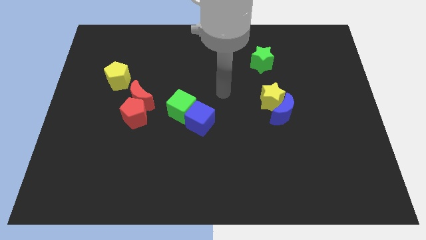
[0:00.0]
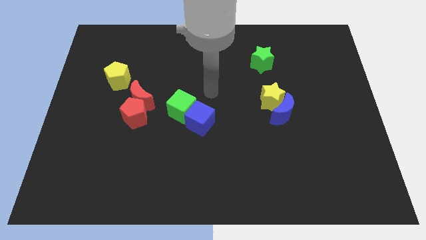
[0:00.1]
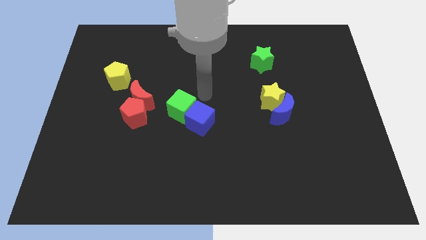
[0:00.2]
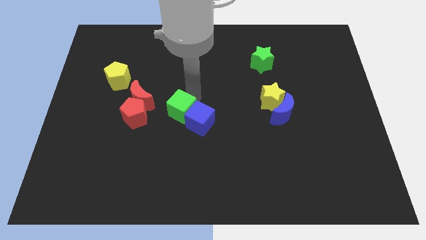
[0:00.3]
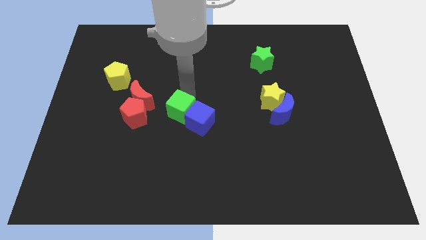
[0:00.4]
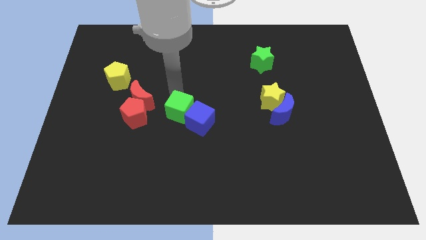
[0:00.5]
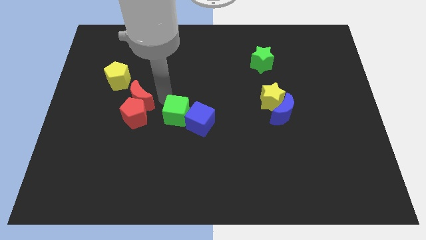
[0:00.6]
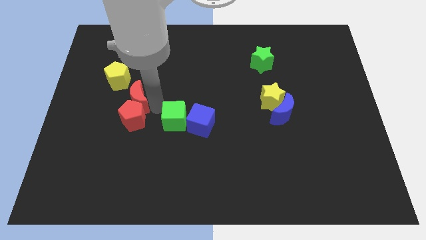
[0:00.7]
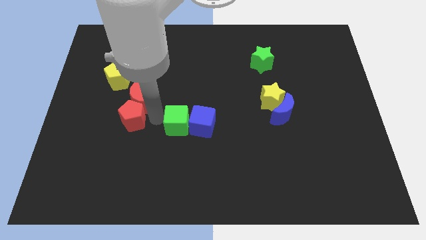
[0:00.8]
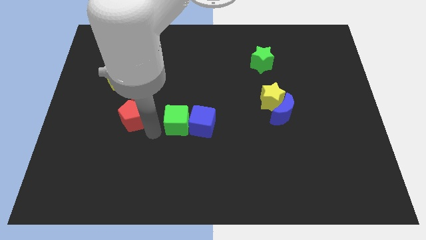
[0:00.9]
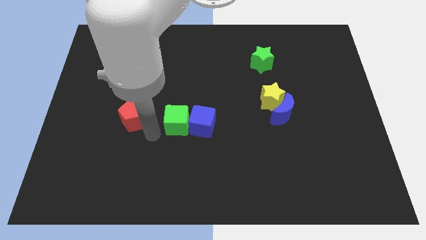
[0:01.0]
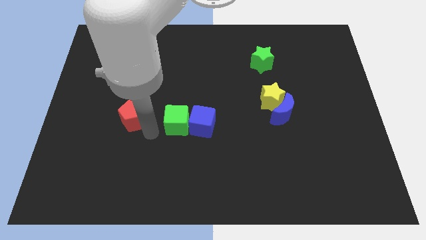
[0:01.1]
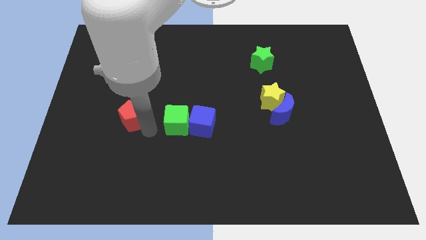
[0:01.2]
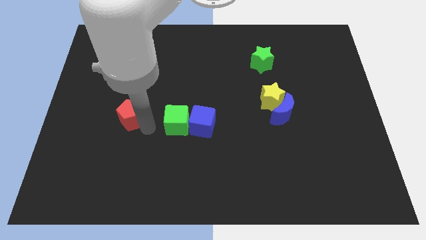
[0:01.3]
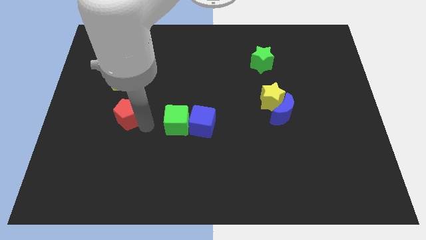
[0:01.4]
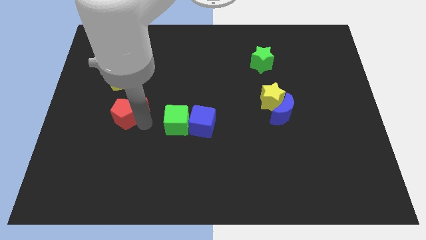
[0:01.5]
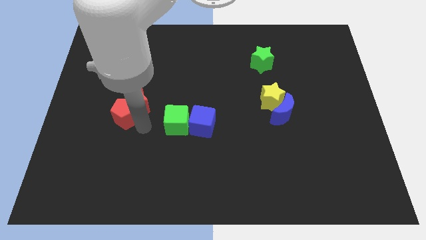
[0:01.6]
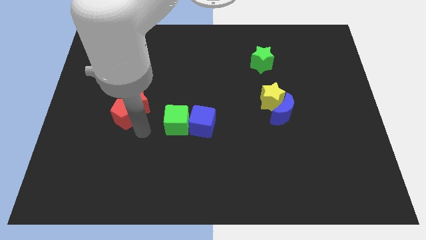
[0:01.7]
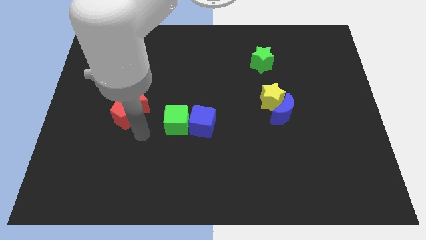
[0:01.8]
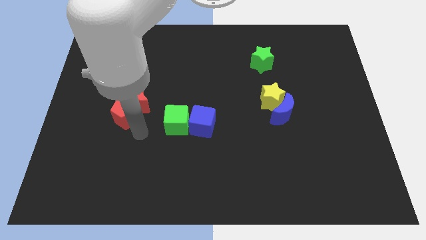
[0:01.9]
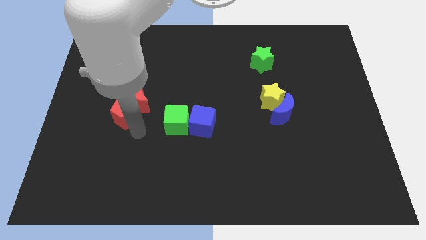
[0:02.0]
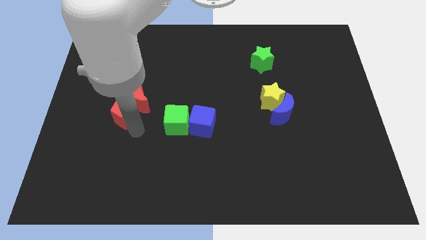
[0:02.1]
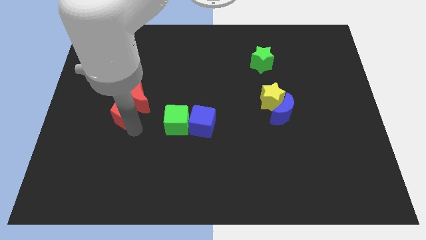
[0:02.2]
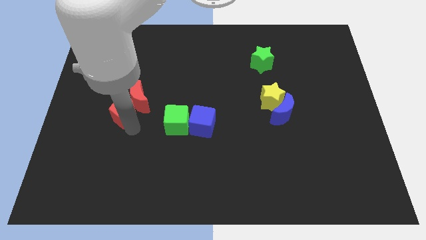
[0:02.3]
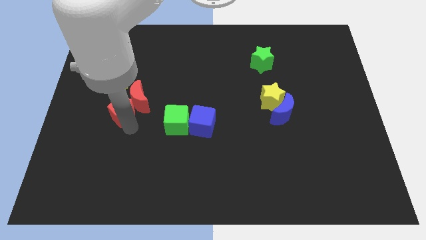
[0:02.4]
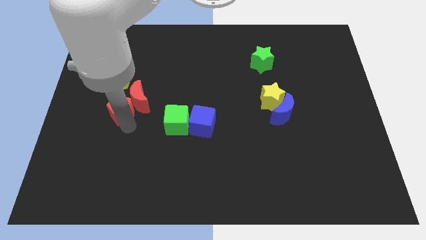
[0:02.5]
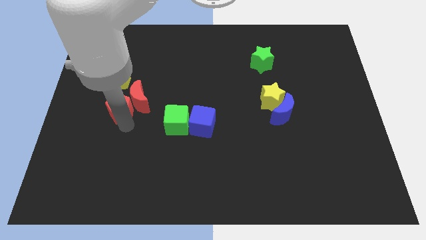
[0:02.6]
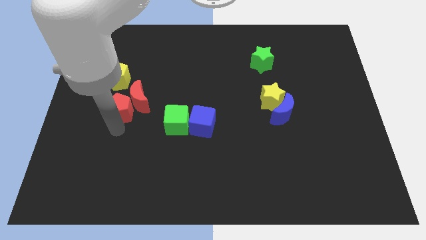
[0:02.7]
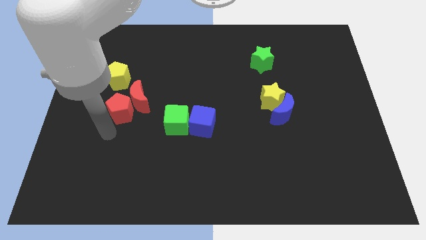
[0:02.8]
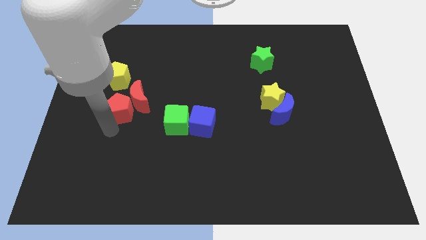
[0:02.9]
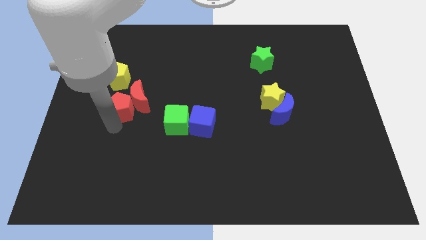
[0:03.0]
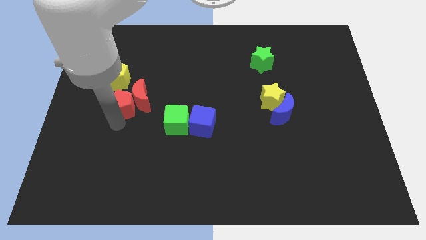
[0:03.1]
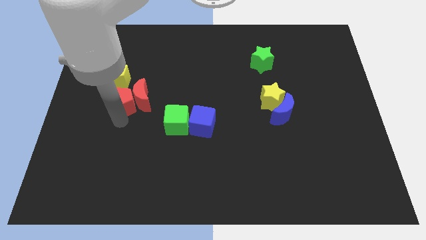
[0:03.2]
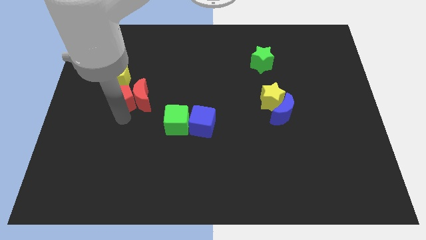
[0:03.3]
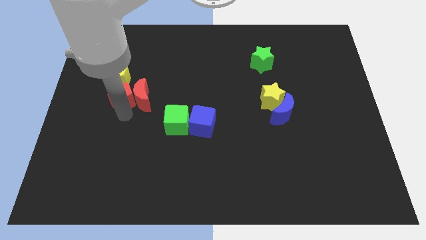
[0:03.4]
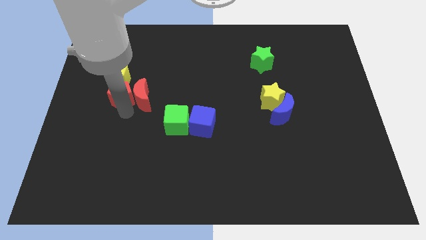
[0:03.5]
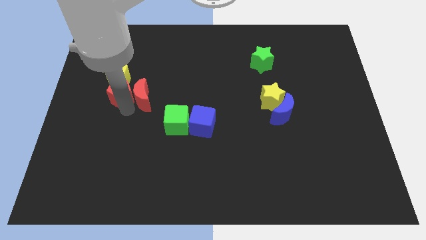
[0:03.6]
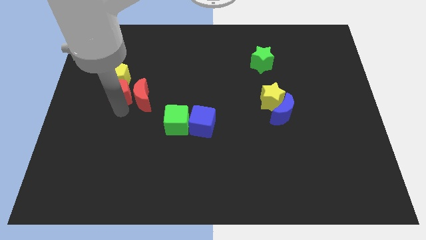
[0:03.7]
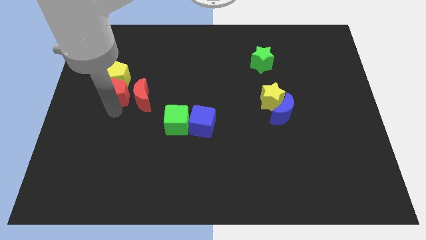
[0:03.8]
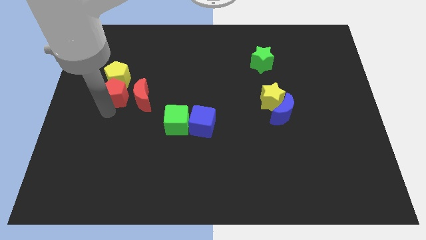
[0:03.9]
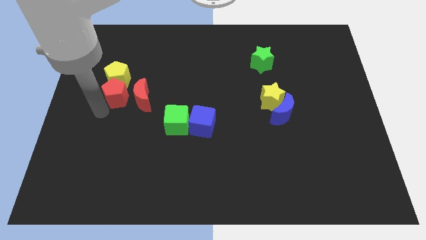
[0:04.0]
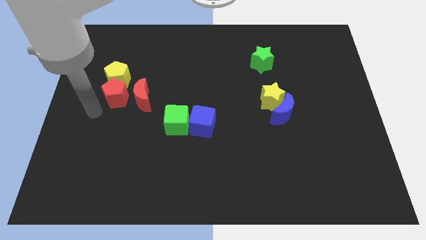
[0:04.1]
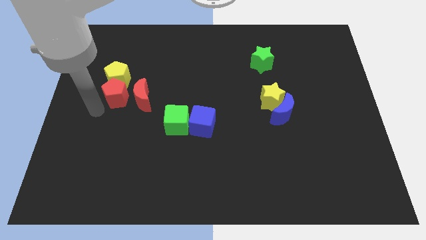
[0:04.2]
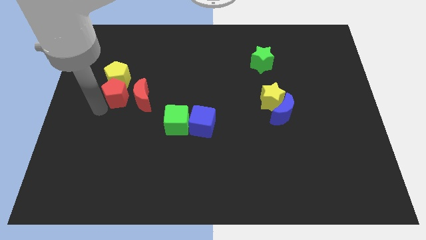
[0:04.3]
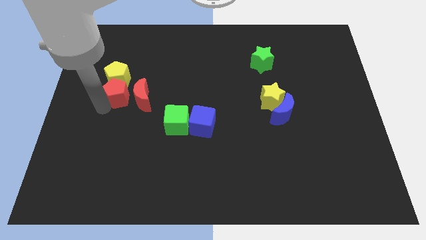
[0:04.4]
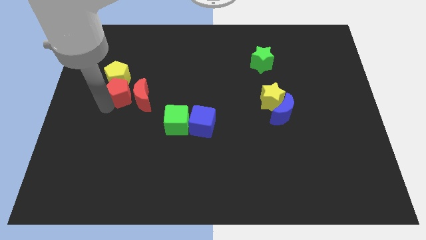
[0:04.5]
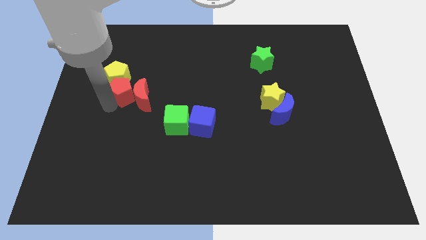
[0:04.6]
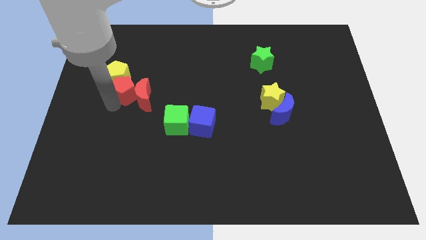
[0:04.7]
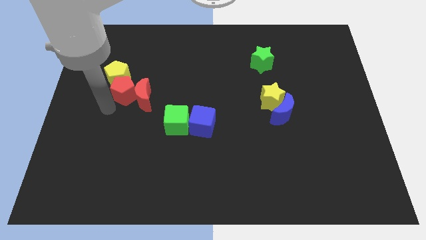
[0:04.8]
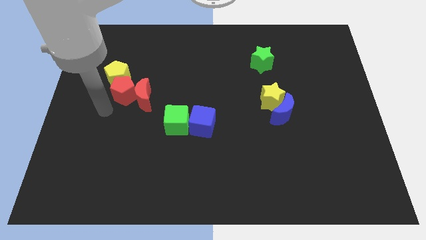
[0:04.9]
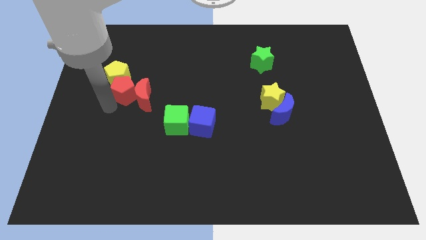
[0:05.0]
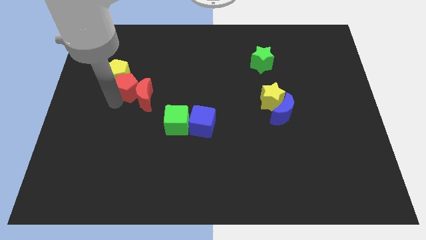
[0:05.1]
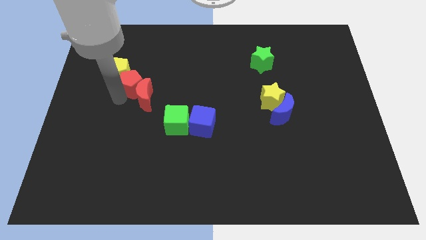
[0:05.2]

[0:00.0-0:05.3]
put the red pentagon above the red moon

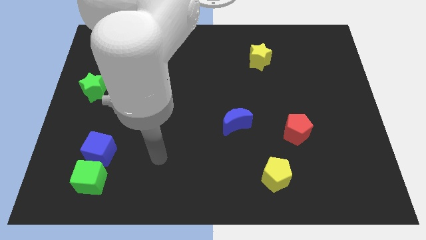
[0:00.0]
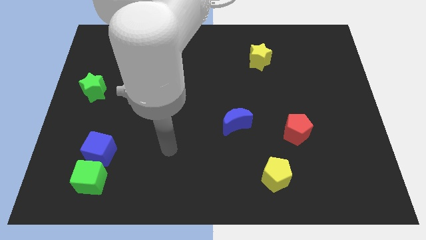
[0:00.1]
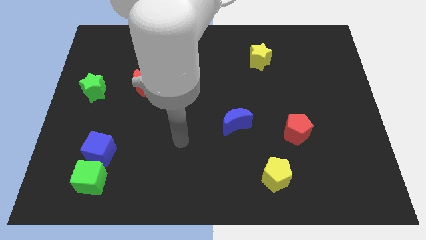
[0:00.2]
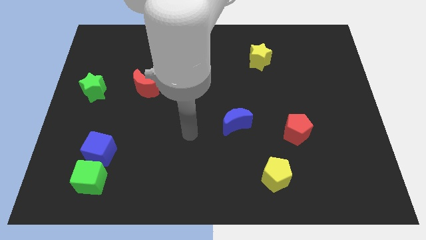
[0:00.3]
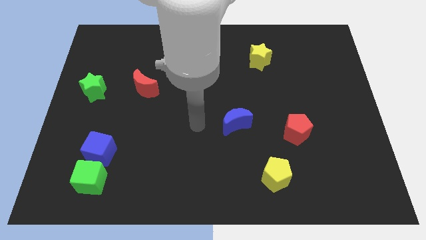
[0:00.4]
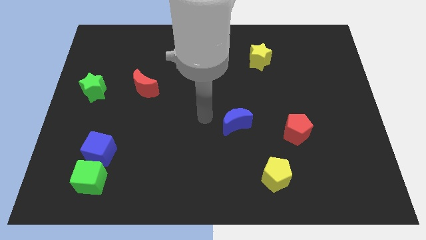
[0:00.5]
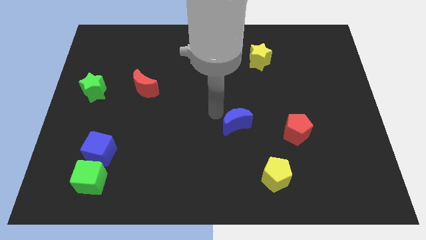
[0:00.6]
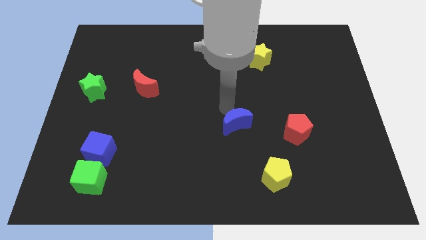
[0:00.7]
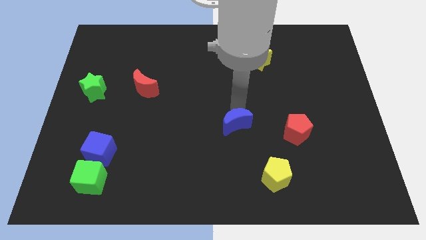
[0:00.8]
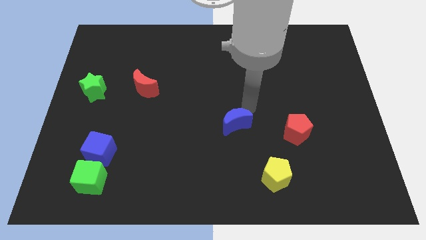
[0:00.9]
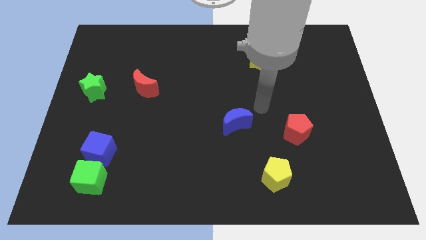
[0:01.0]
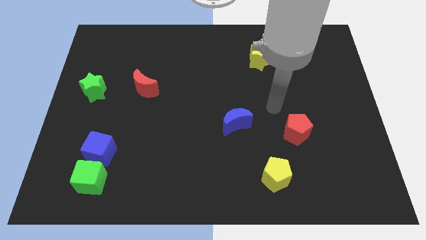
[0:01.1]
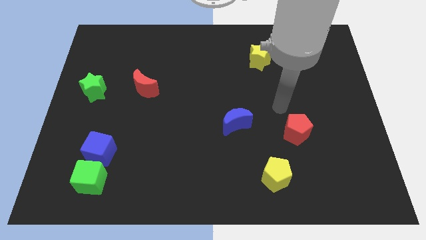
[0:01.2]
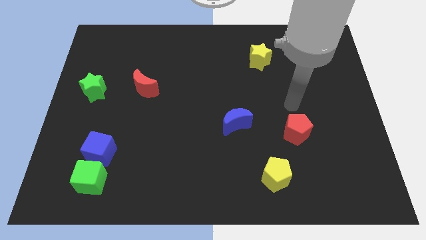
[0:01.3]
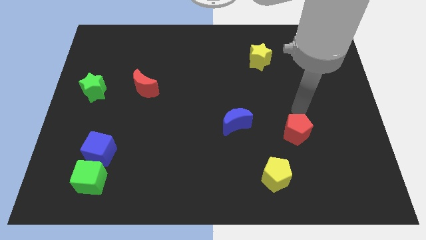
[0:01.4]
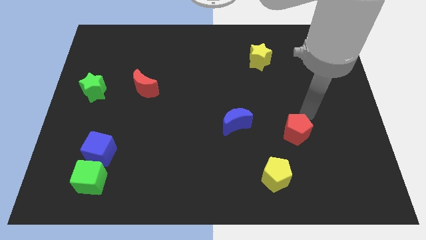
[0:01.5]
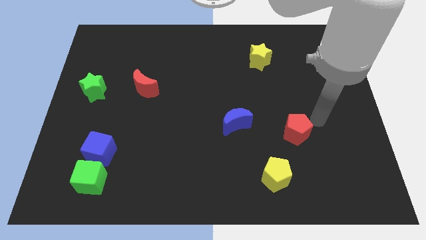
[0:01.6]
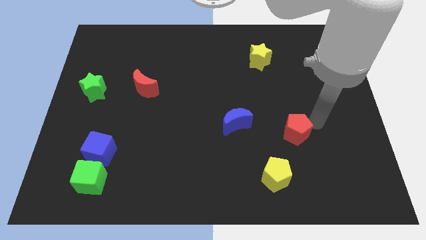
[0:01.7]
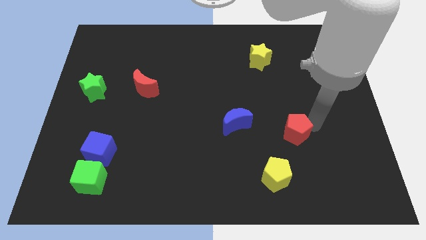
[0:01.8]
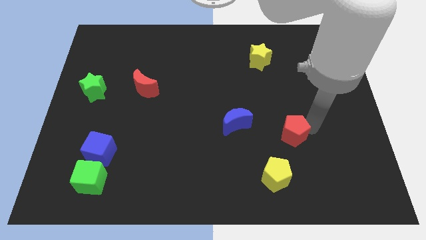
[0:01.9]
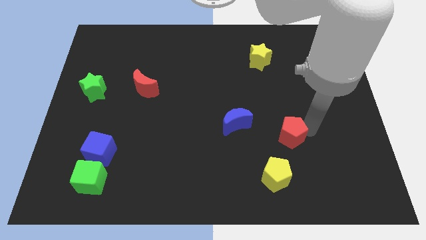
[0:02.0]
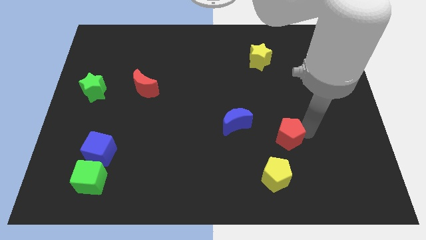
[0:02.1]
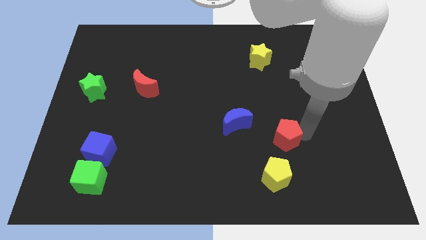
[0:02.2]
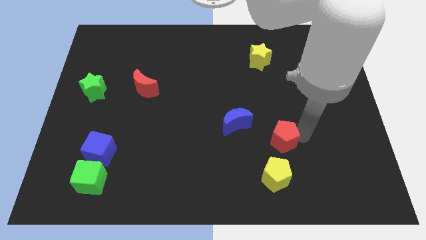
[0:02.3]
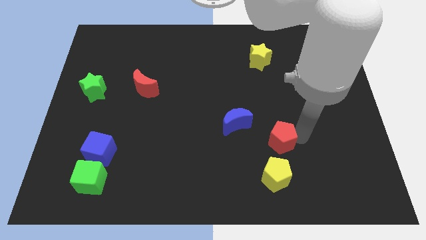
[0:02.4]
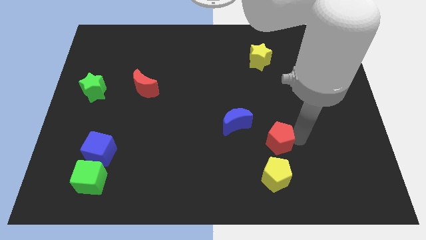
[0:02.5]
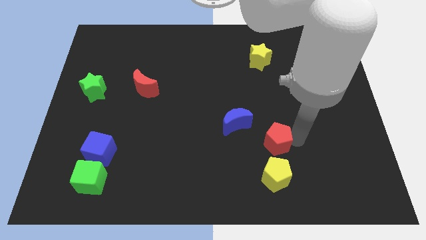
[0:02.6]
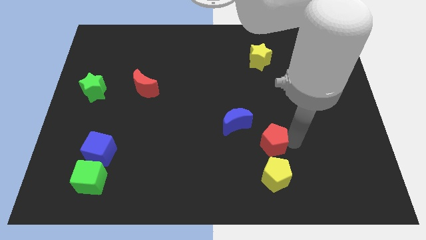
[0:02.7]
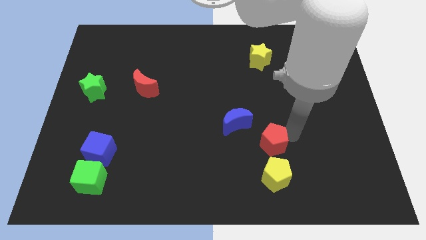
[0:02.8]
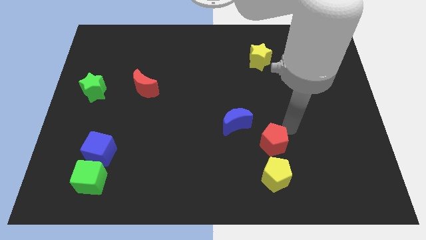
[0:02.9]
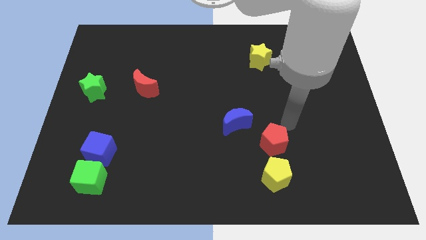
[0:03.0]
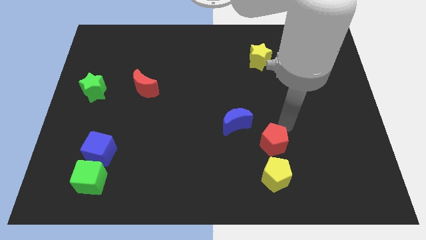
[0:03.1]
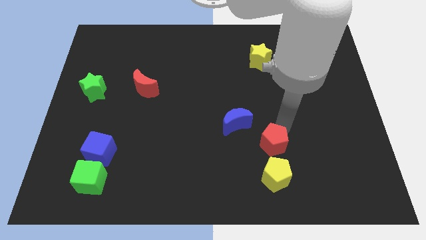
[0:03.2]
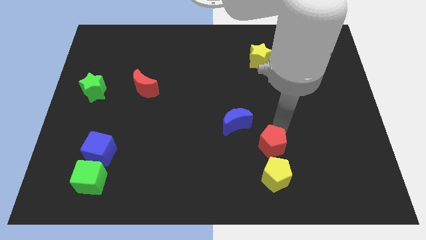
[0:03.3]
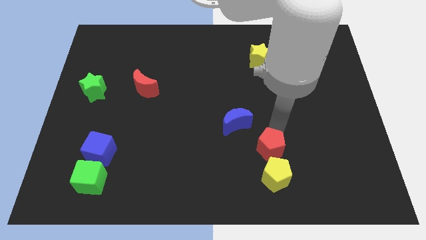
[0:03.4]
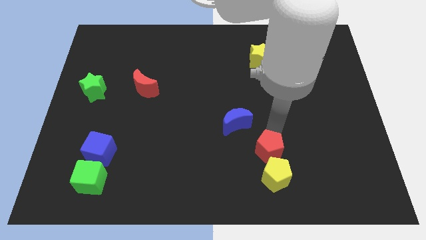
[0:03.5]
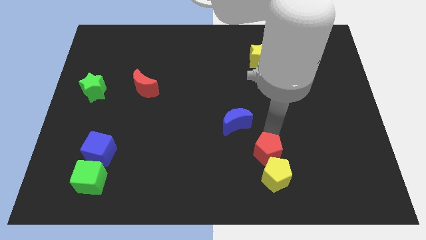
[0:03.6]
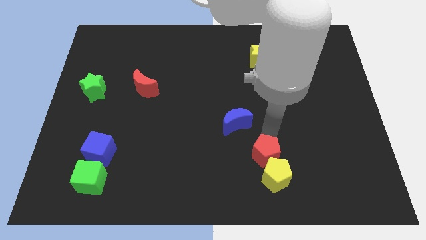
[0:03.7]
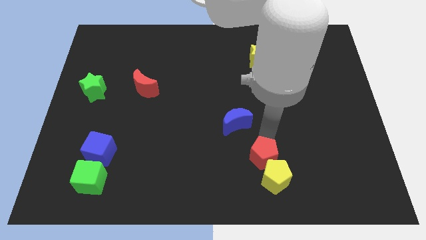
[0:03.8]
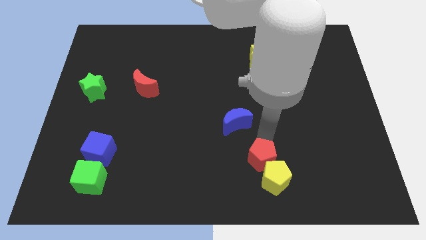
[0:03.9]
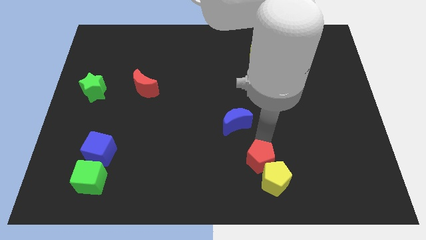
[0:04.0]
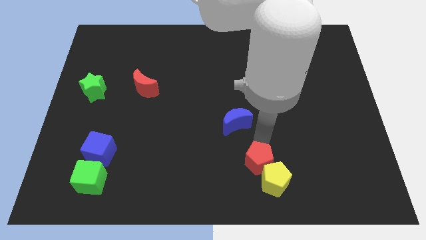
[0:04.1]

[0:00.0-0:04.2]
push the red pentagon to the left side of the yellow pentagon
